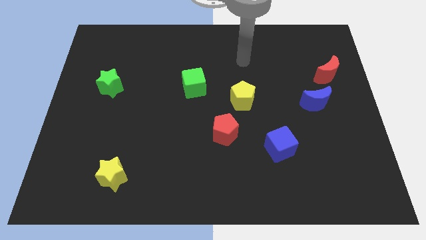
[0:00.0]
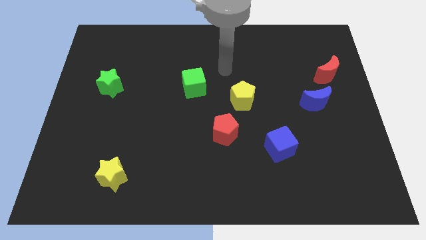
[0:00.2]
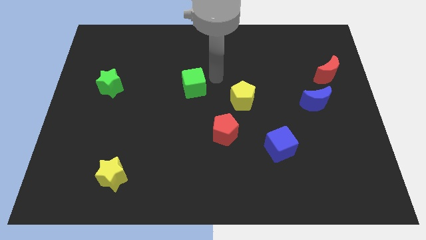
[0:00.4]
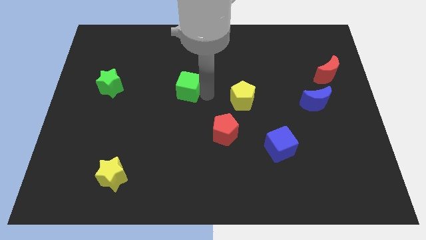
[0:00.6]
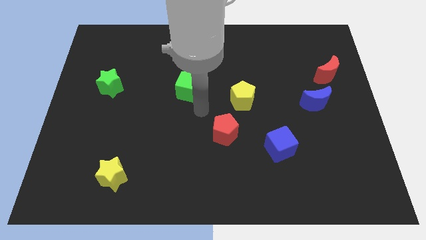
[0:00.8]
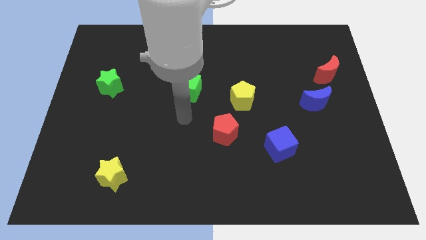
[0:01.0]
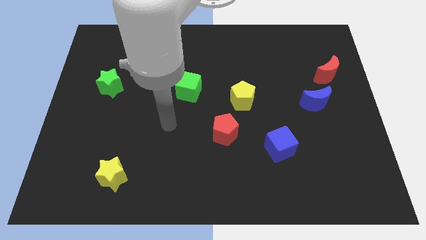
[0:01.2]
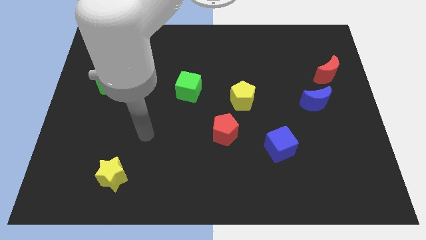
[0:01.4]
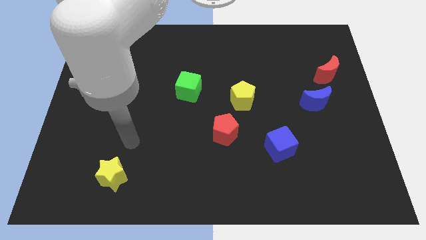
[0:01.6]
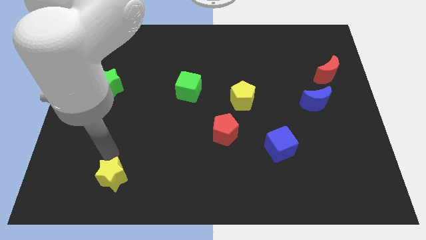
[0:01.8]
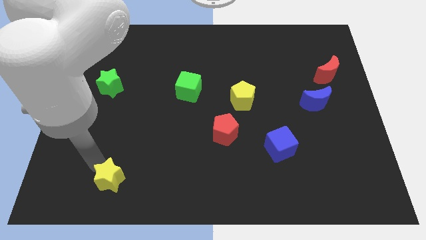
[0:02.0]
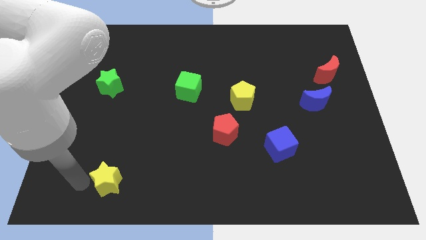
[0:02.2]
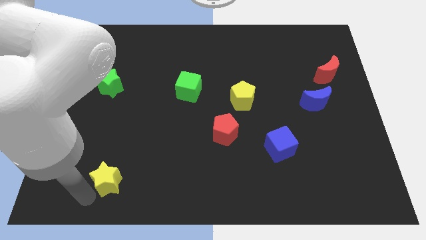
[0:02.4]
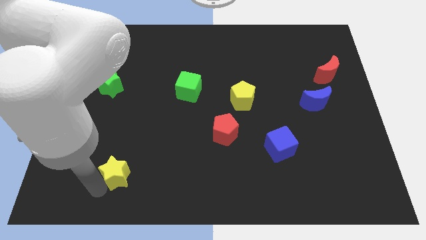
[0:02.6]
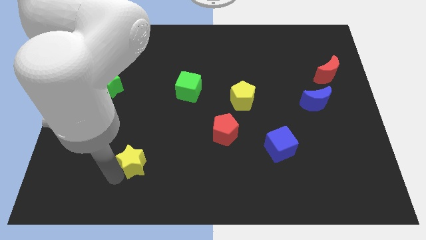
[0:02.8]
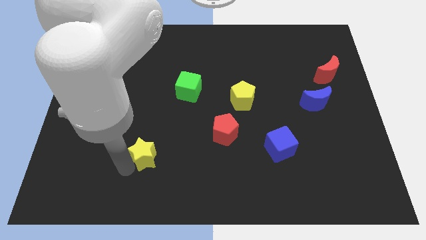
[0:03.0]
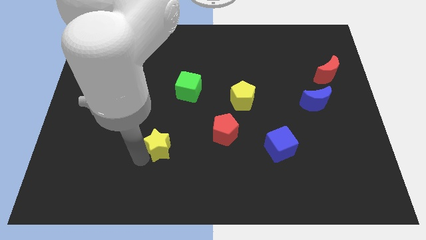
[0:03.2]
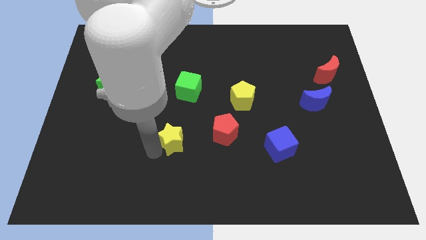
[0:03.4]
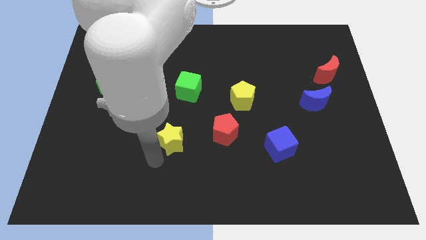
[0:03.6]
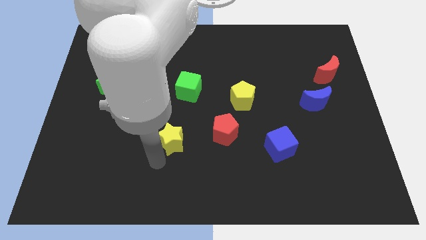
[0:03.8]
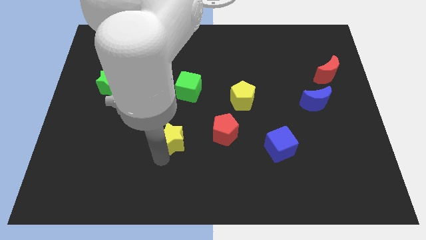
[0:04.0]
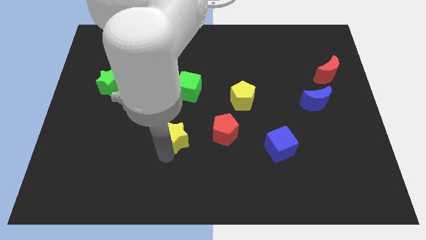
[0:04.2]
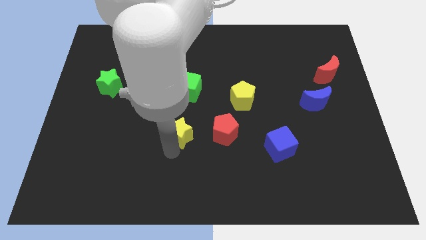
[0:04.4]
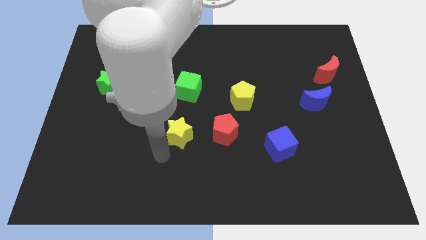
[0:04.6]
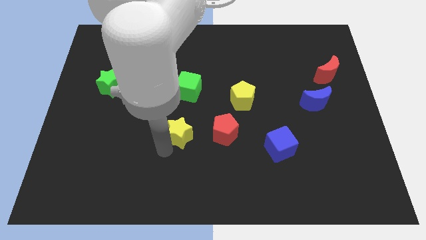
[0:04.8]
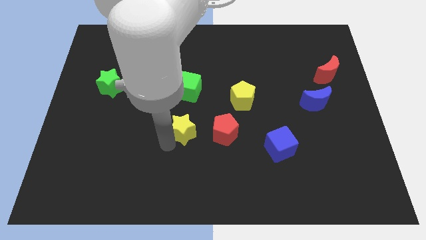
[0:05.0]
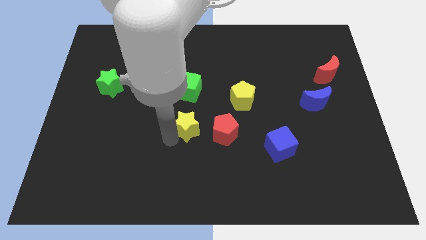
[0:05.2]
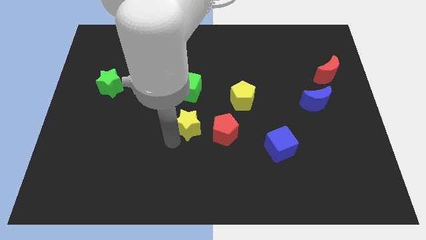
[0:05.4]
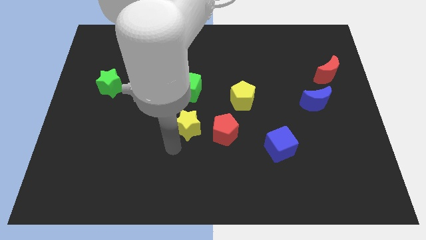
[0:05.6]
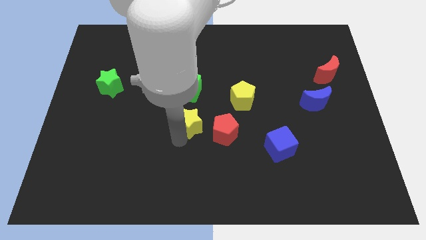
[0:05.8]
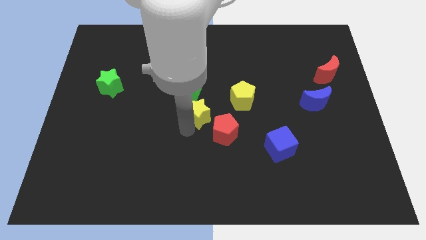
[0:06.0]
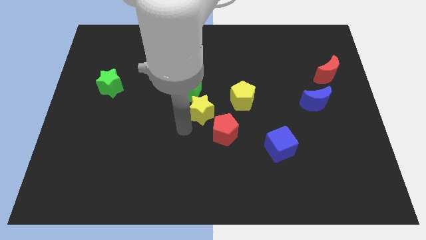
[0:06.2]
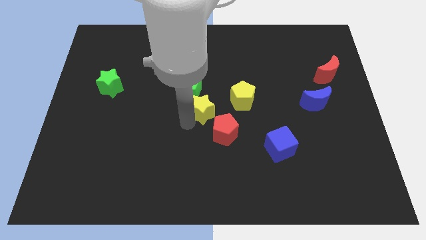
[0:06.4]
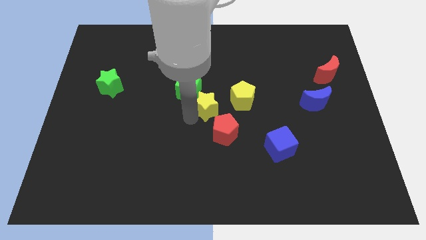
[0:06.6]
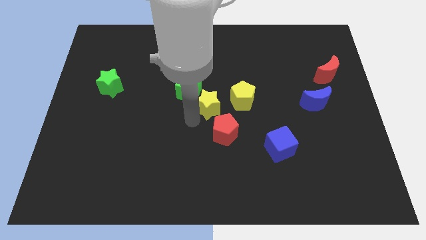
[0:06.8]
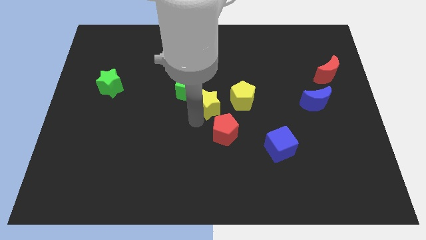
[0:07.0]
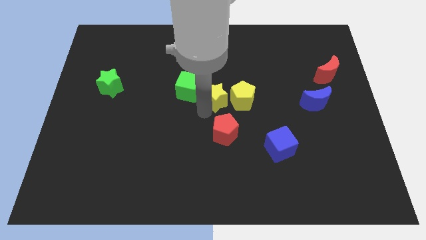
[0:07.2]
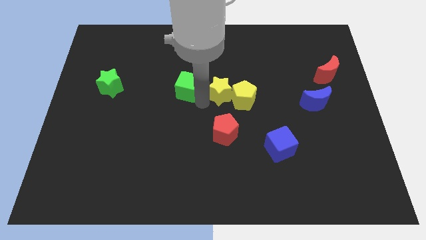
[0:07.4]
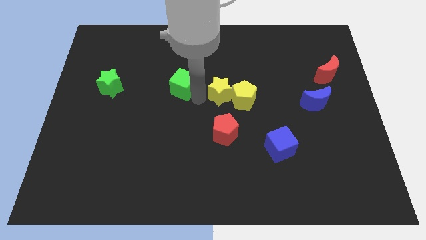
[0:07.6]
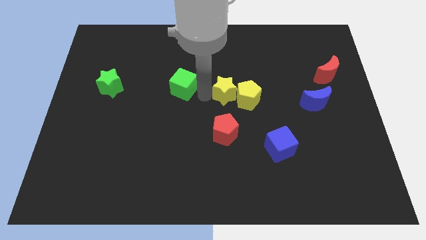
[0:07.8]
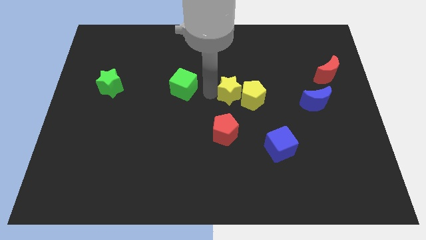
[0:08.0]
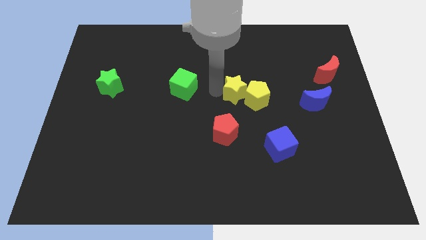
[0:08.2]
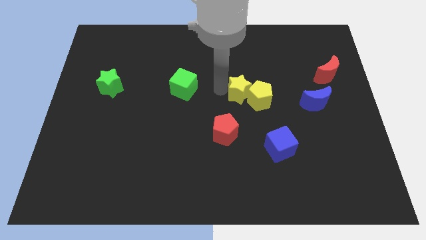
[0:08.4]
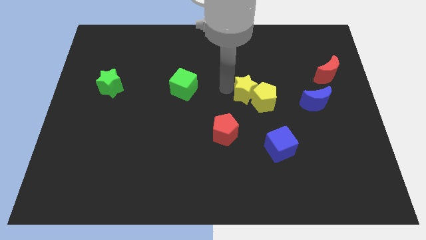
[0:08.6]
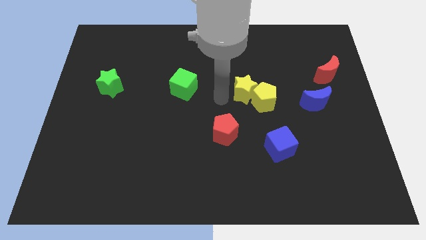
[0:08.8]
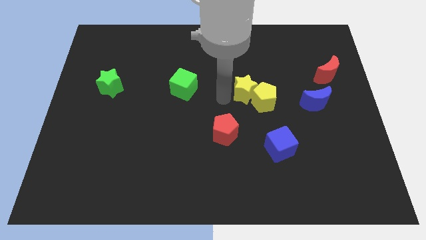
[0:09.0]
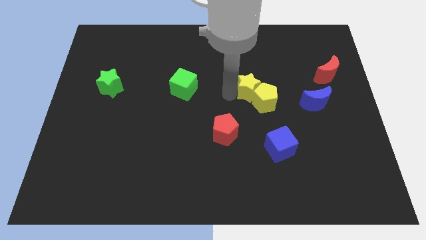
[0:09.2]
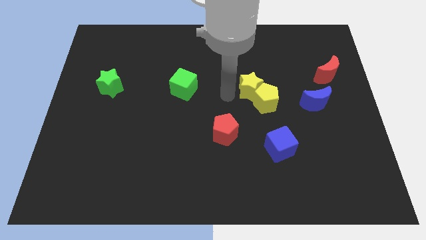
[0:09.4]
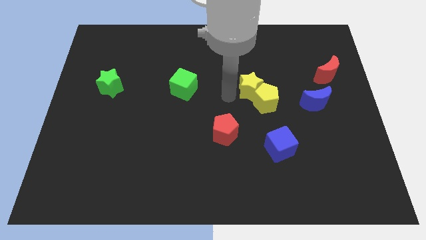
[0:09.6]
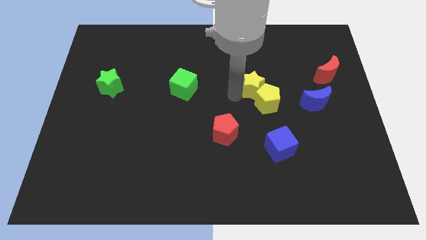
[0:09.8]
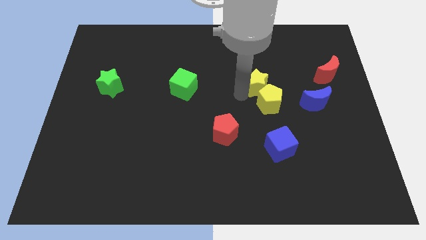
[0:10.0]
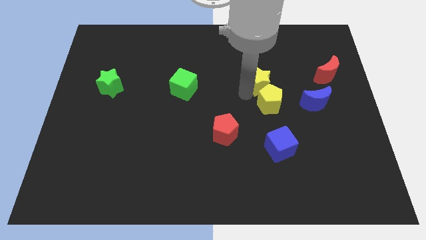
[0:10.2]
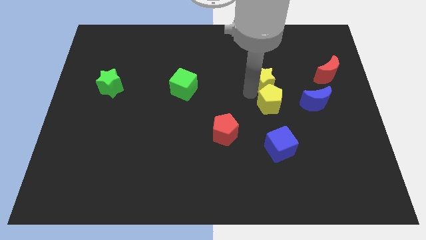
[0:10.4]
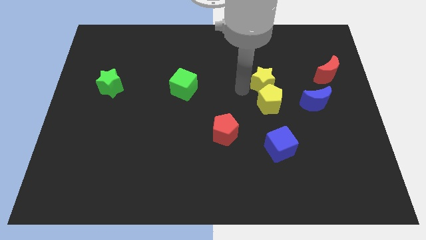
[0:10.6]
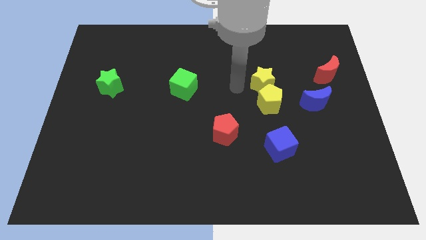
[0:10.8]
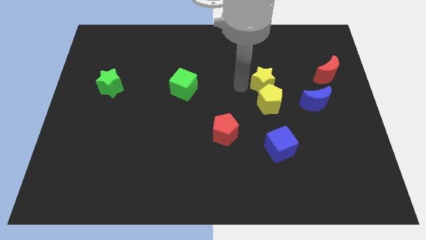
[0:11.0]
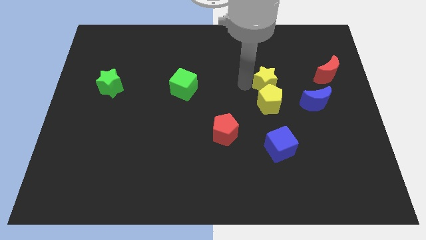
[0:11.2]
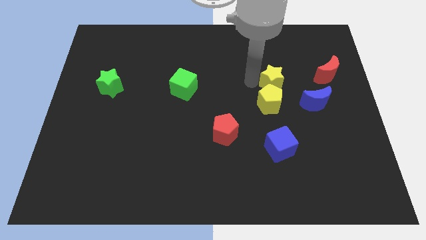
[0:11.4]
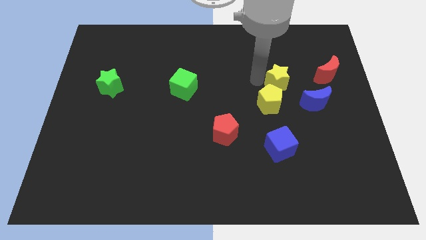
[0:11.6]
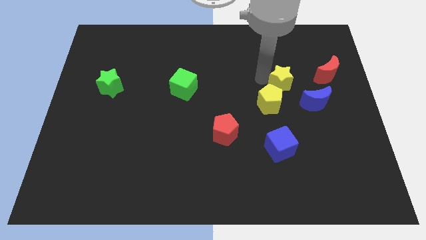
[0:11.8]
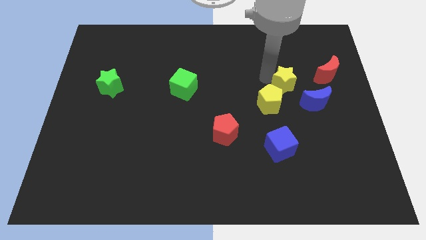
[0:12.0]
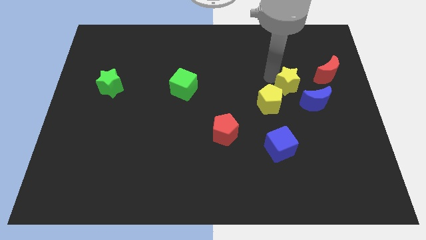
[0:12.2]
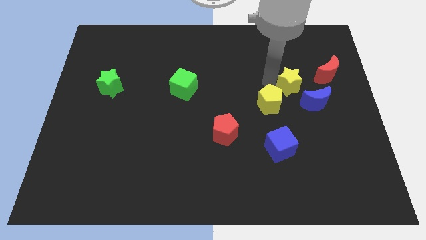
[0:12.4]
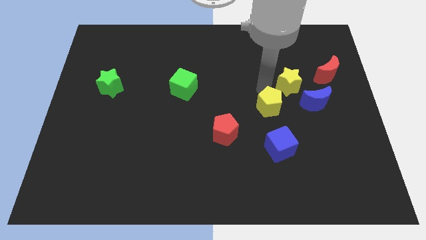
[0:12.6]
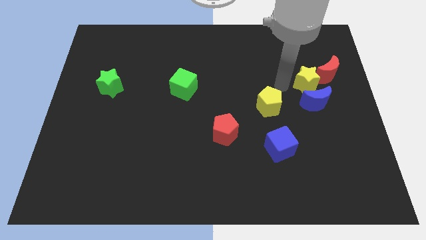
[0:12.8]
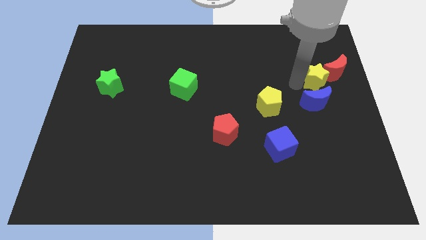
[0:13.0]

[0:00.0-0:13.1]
push the yellow star close to the red moon
